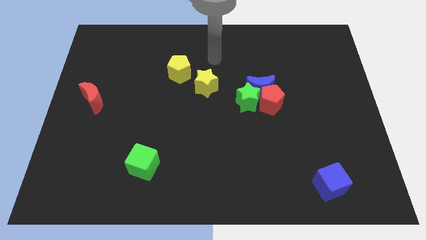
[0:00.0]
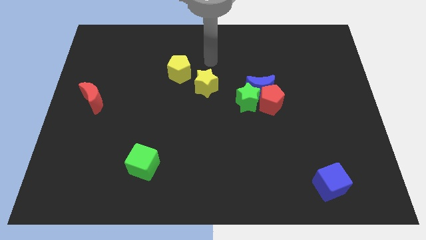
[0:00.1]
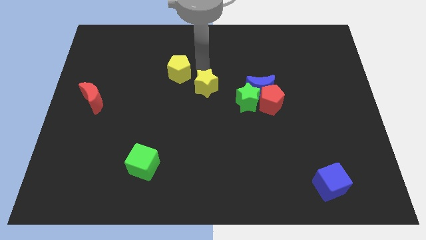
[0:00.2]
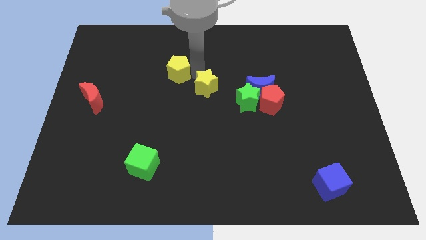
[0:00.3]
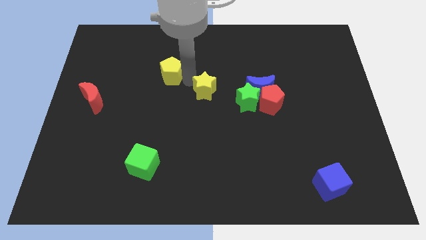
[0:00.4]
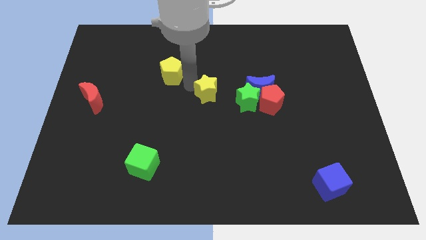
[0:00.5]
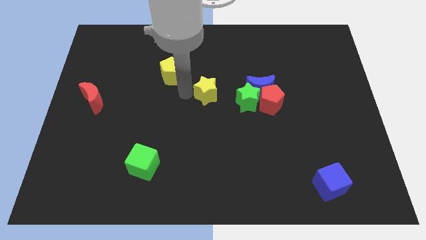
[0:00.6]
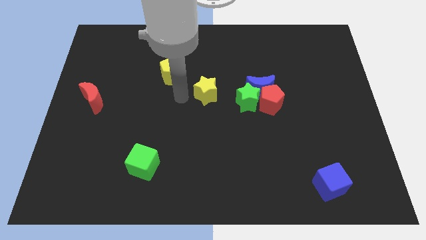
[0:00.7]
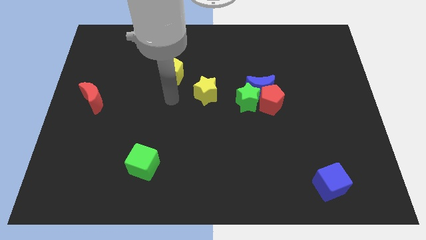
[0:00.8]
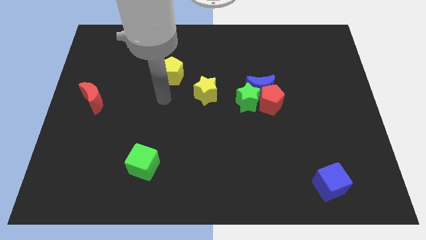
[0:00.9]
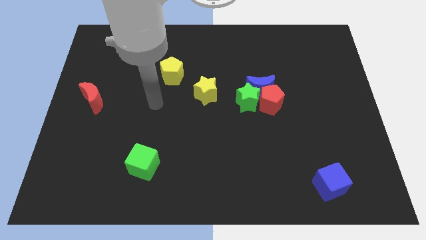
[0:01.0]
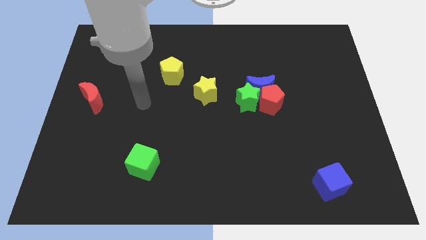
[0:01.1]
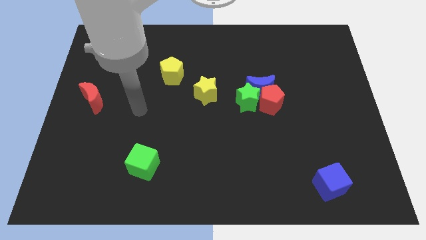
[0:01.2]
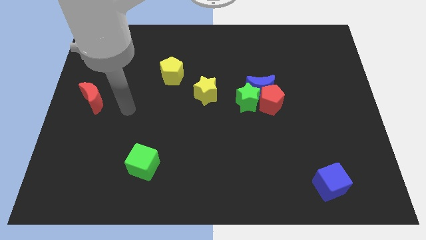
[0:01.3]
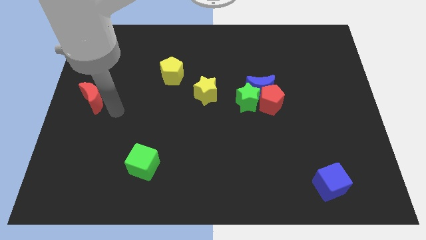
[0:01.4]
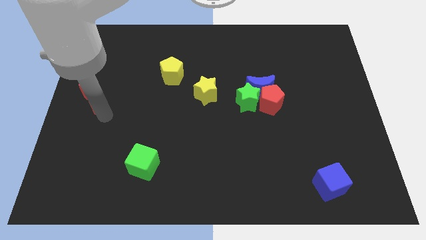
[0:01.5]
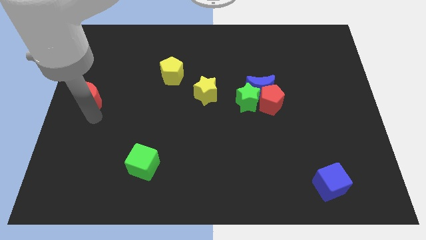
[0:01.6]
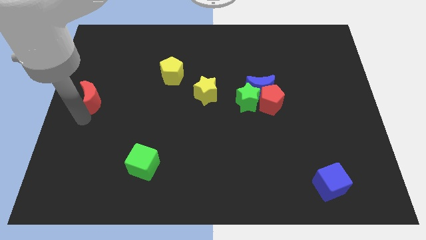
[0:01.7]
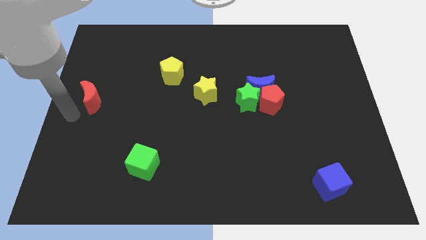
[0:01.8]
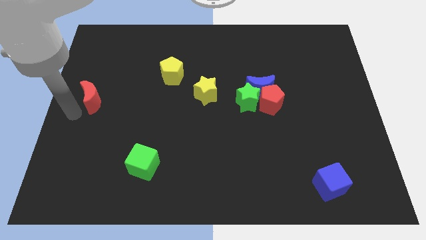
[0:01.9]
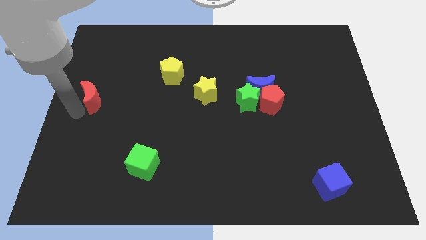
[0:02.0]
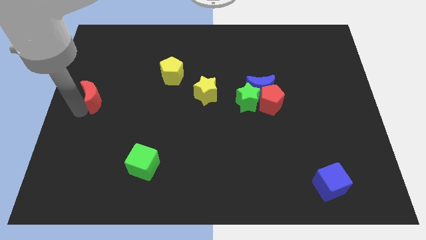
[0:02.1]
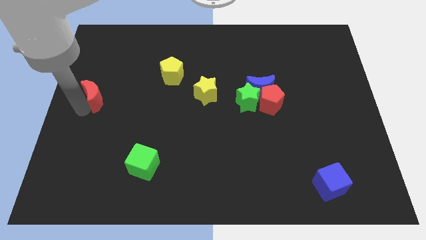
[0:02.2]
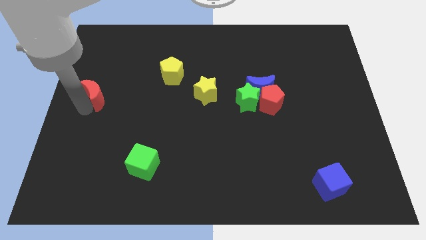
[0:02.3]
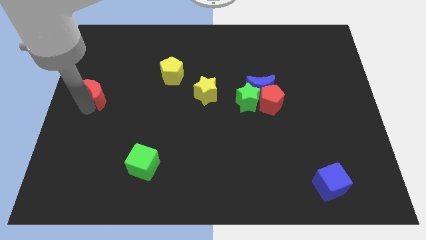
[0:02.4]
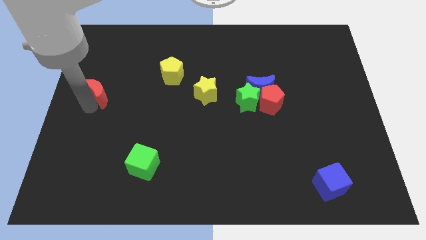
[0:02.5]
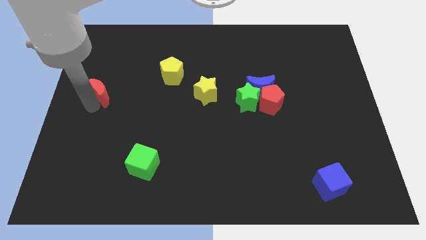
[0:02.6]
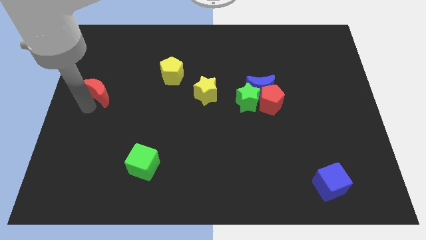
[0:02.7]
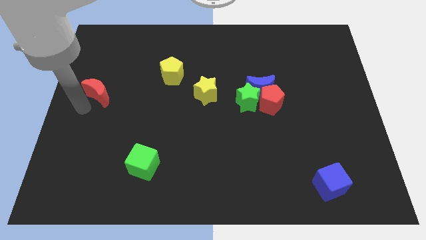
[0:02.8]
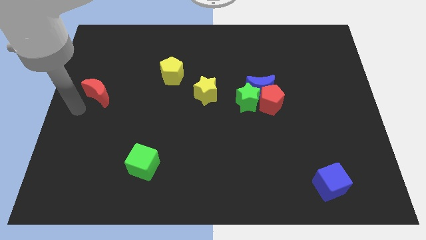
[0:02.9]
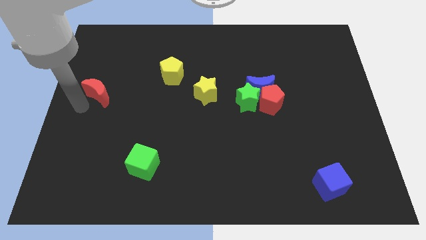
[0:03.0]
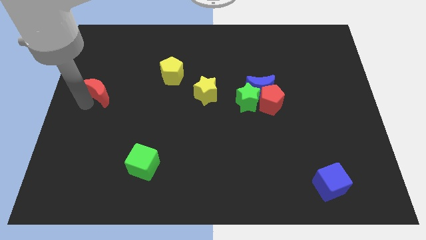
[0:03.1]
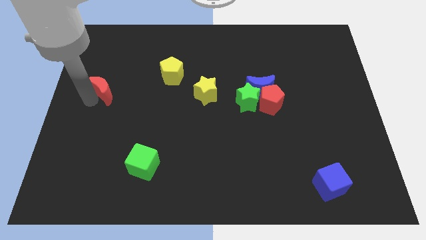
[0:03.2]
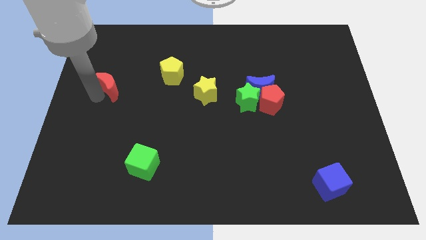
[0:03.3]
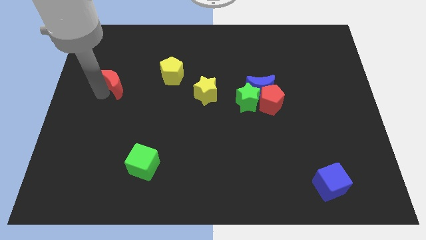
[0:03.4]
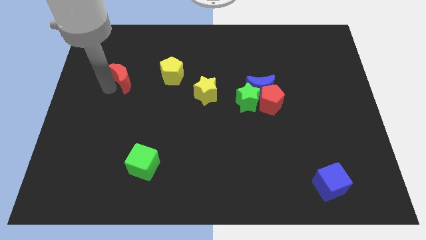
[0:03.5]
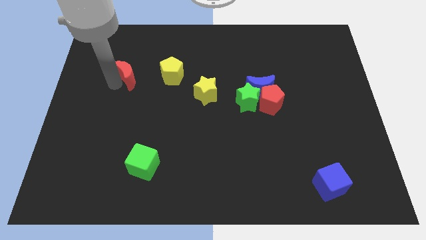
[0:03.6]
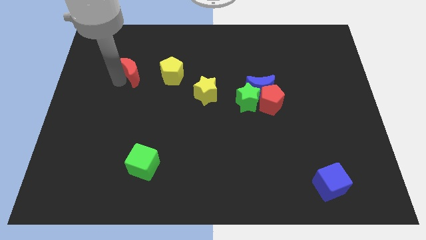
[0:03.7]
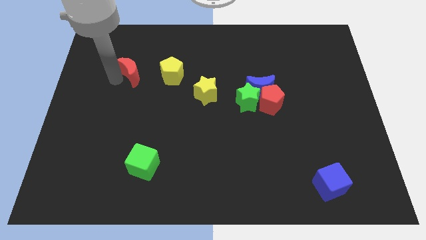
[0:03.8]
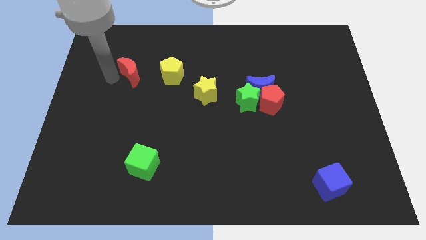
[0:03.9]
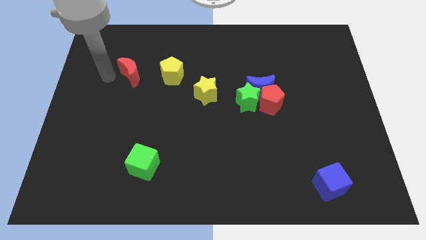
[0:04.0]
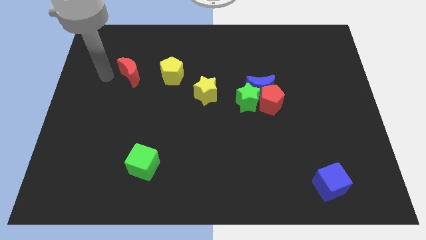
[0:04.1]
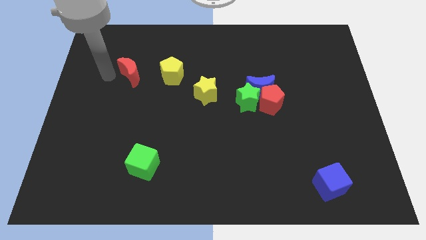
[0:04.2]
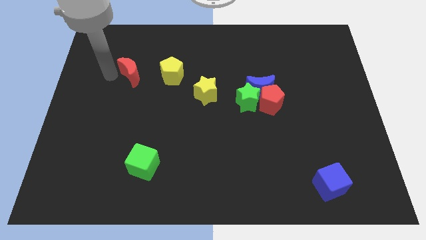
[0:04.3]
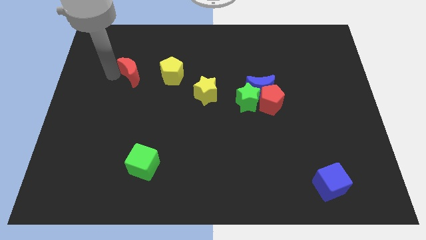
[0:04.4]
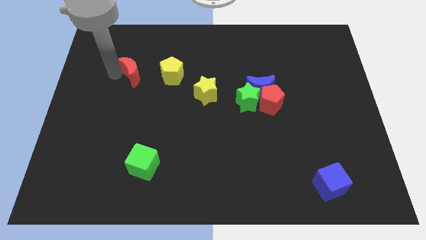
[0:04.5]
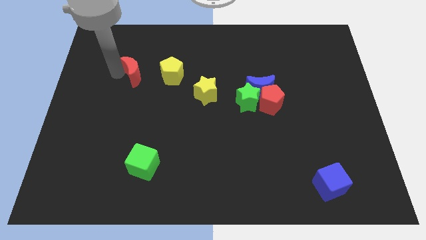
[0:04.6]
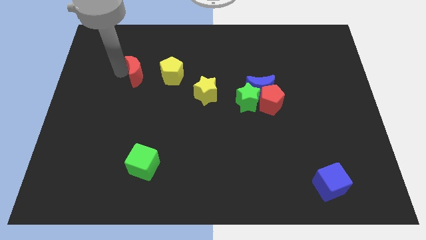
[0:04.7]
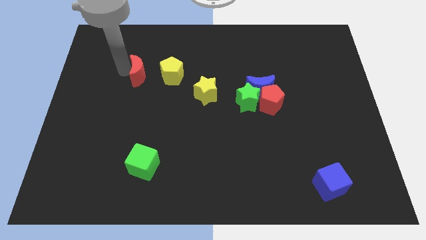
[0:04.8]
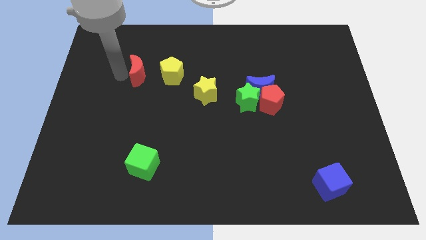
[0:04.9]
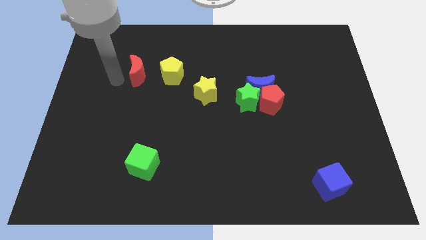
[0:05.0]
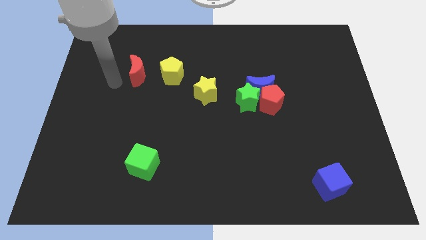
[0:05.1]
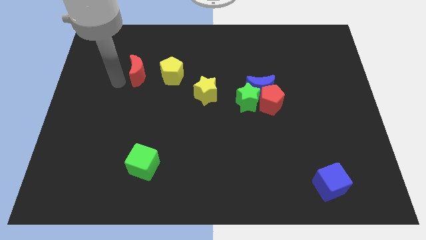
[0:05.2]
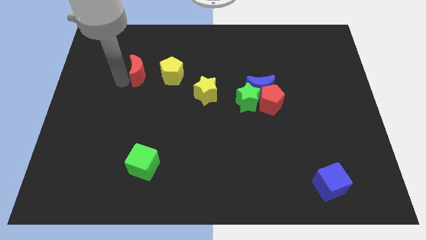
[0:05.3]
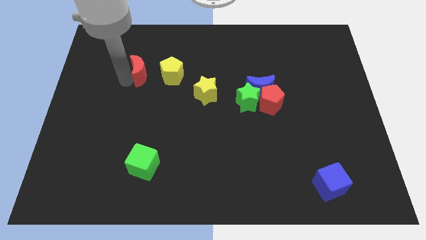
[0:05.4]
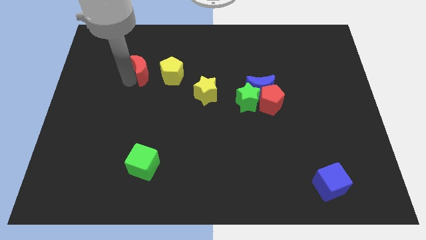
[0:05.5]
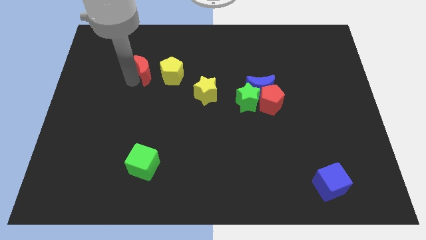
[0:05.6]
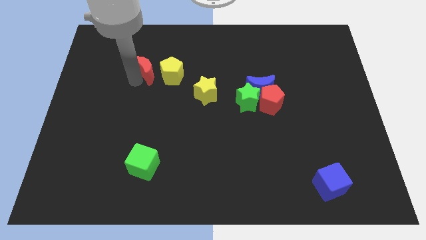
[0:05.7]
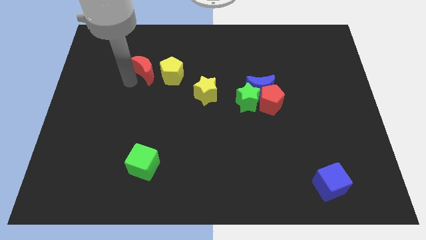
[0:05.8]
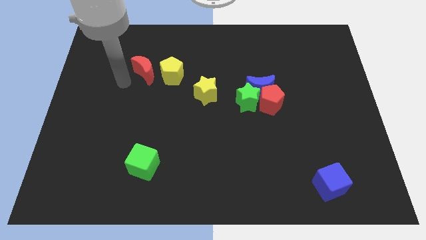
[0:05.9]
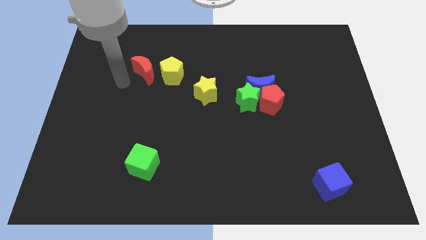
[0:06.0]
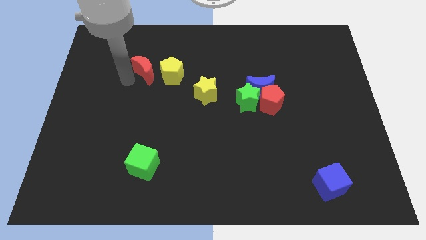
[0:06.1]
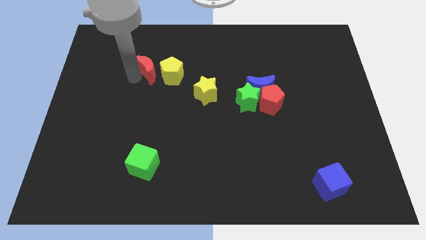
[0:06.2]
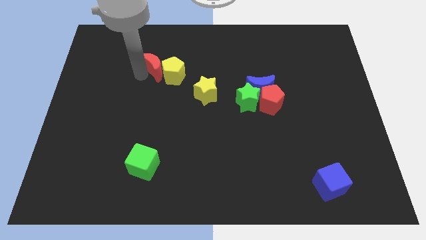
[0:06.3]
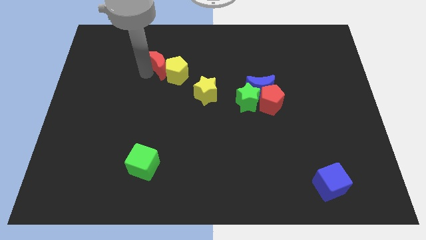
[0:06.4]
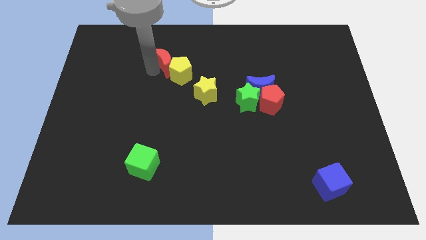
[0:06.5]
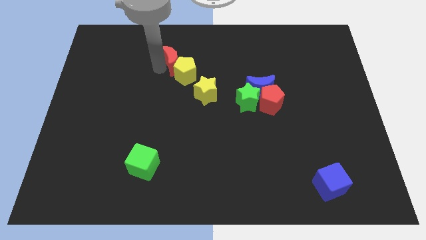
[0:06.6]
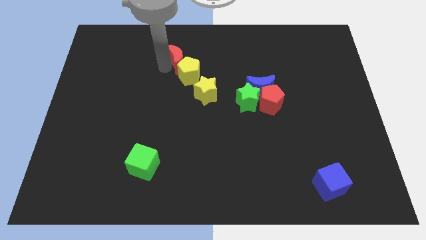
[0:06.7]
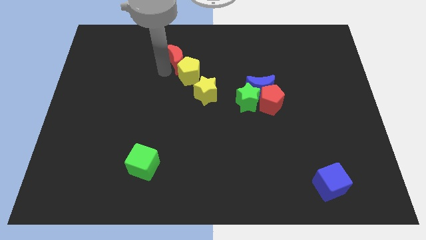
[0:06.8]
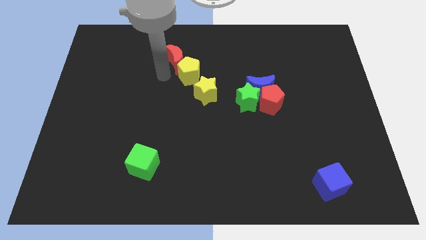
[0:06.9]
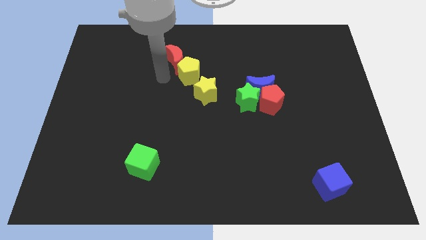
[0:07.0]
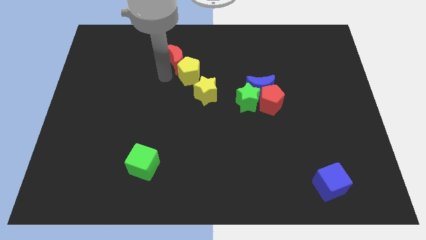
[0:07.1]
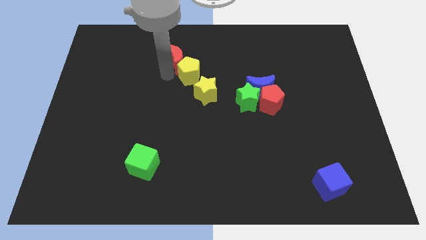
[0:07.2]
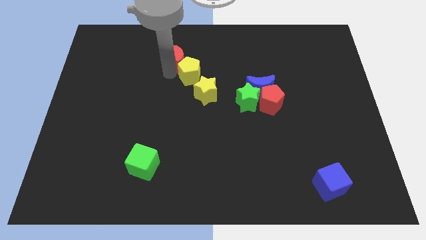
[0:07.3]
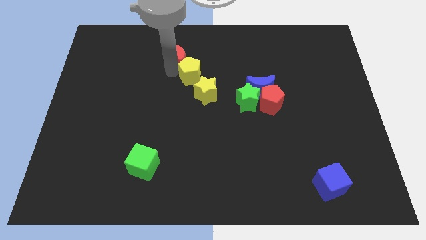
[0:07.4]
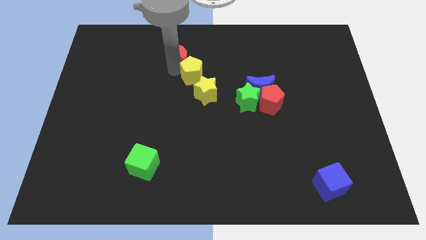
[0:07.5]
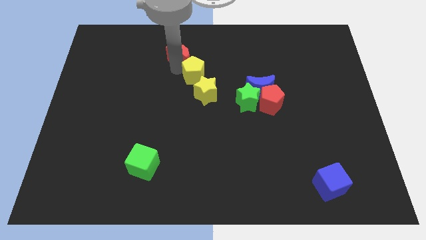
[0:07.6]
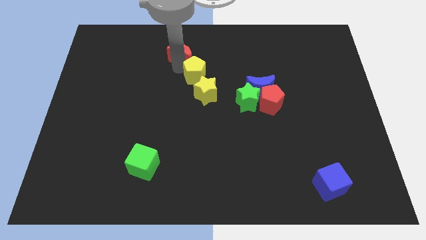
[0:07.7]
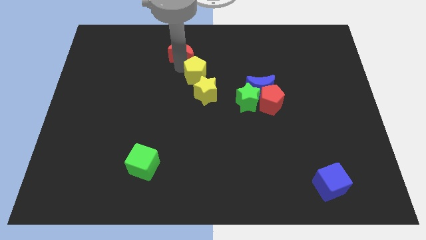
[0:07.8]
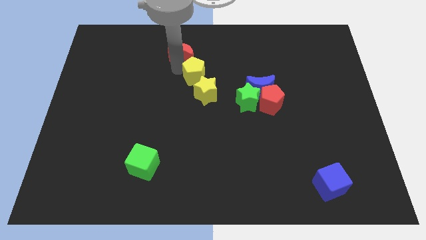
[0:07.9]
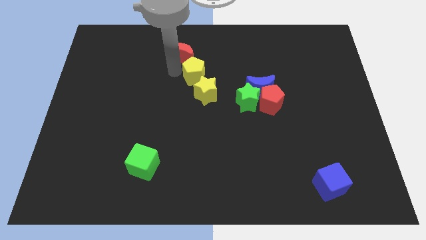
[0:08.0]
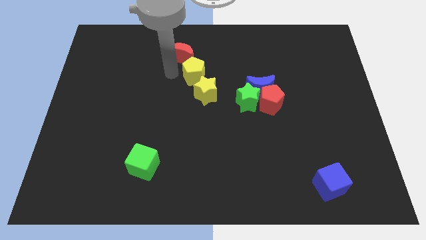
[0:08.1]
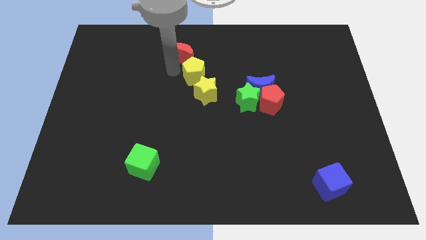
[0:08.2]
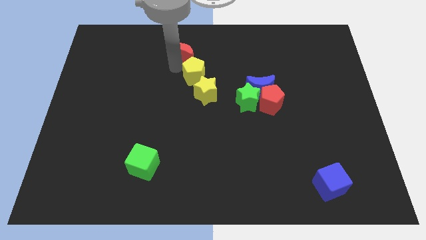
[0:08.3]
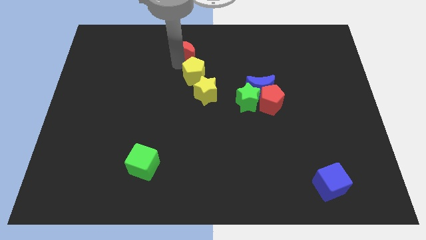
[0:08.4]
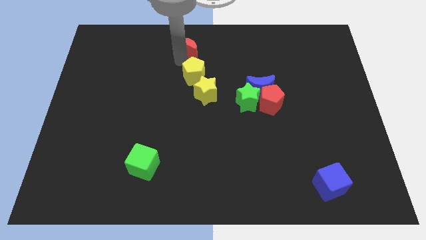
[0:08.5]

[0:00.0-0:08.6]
slide the red moon to the top side
